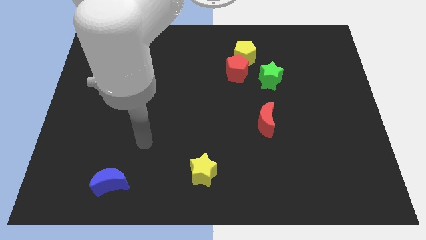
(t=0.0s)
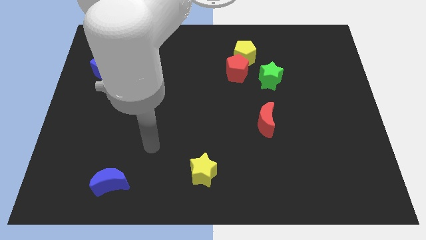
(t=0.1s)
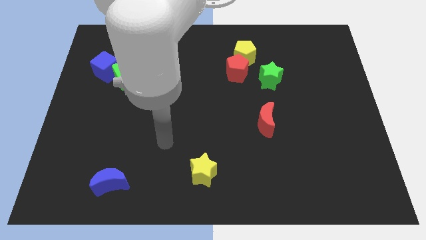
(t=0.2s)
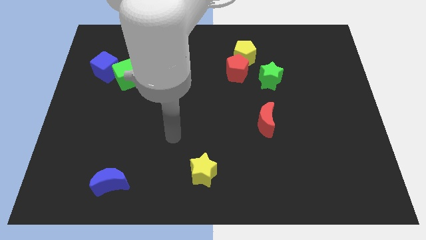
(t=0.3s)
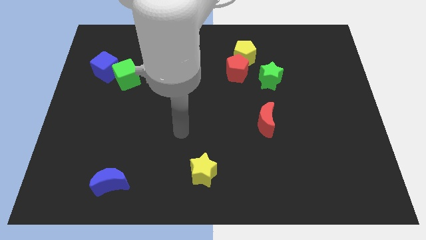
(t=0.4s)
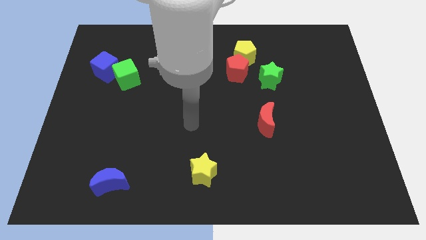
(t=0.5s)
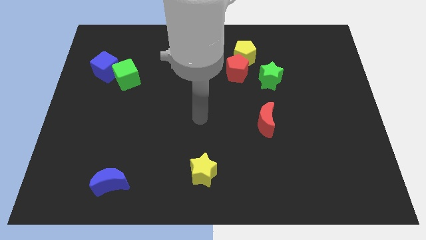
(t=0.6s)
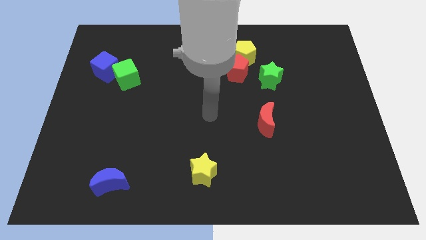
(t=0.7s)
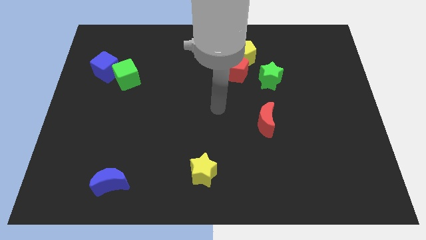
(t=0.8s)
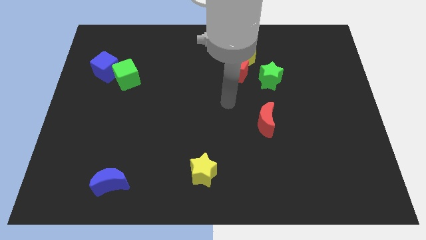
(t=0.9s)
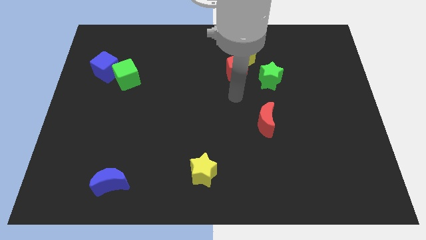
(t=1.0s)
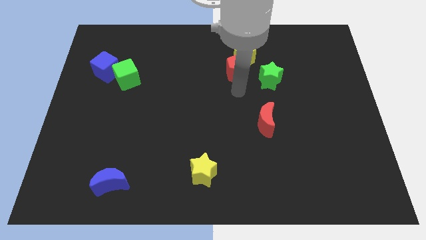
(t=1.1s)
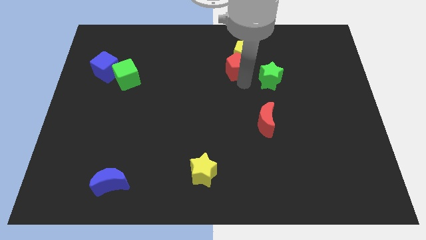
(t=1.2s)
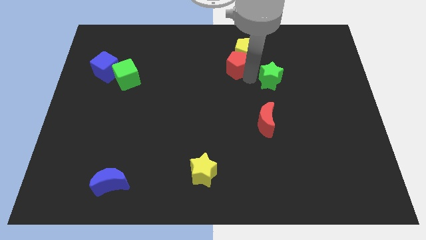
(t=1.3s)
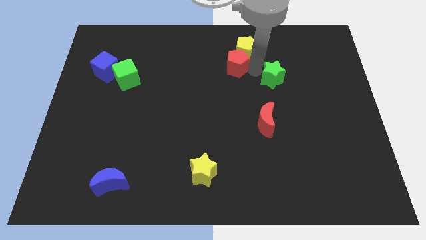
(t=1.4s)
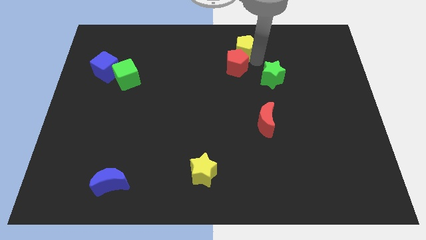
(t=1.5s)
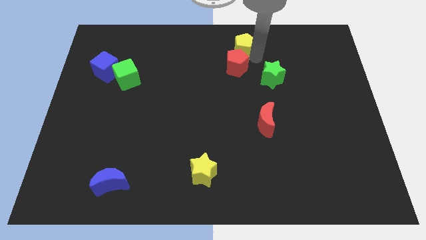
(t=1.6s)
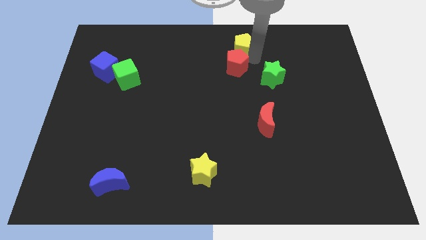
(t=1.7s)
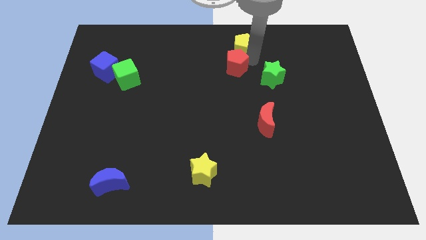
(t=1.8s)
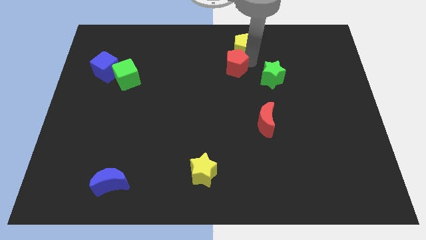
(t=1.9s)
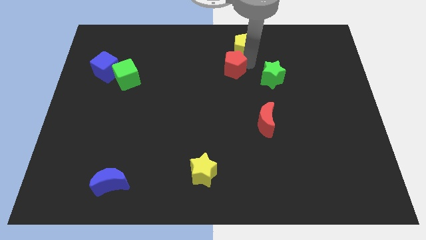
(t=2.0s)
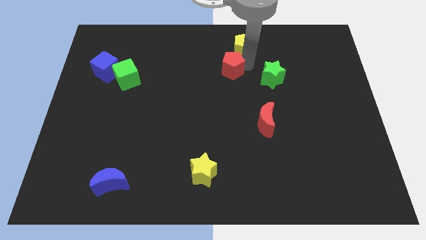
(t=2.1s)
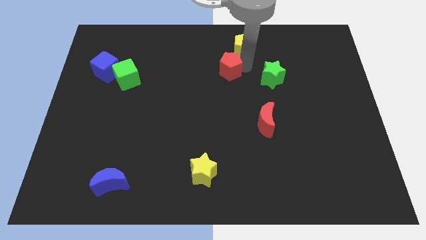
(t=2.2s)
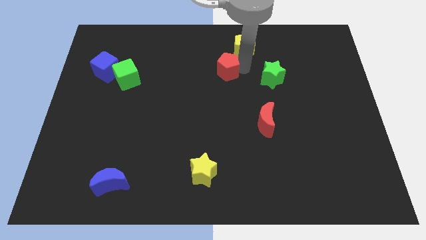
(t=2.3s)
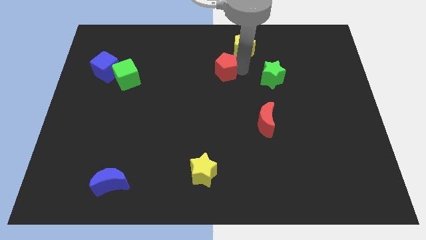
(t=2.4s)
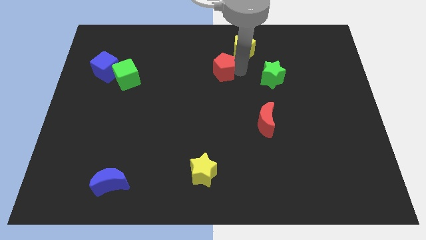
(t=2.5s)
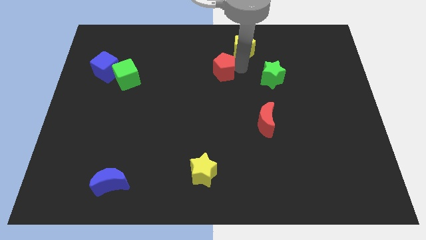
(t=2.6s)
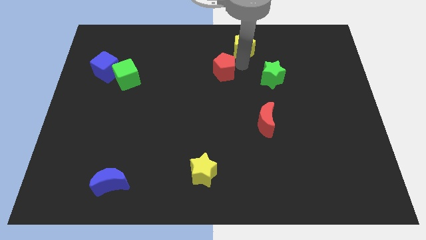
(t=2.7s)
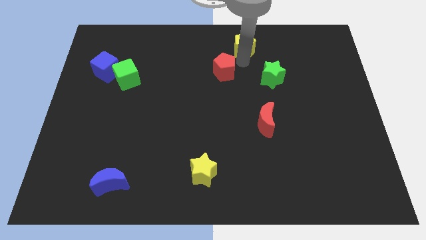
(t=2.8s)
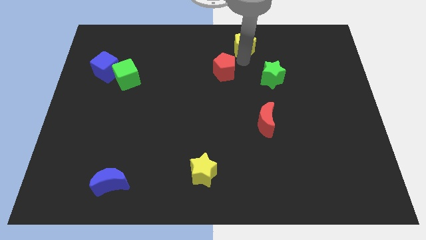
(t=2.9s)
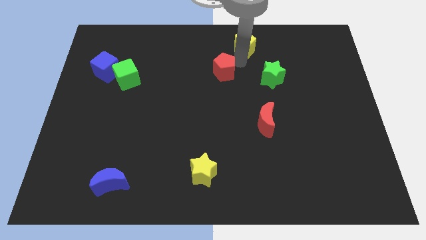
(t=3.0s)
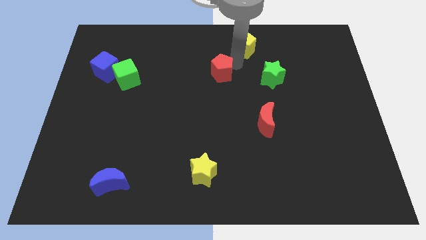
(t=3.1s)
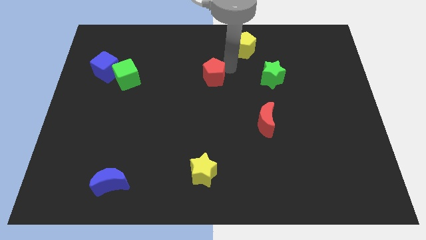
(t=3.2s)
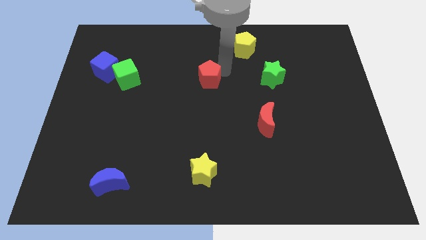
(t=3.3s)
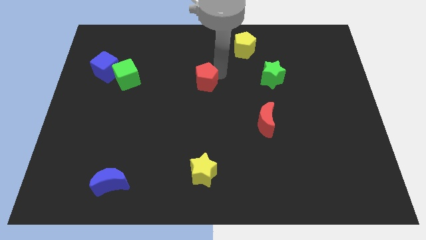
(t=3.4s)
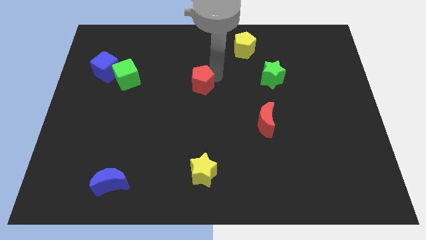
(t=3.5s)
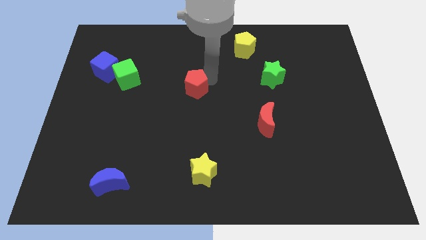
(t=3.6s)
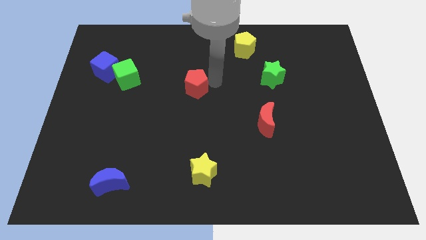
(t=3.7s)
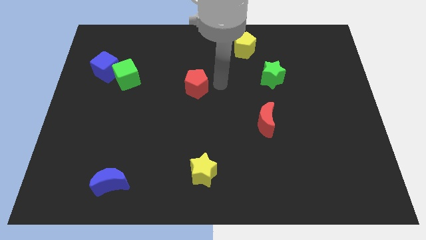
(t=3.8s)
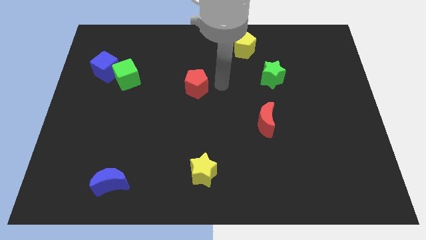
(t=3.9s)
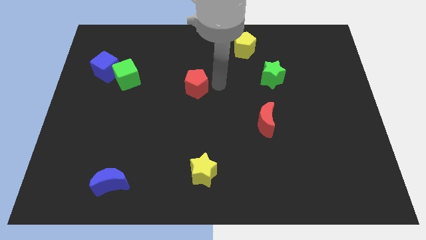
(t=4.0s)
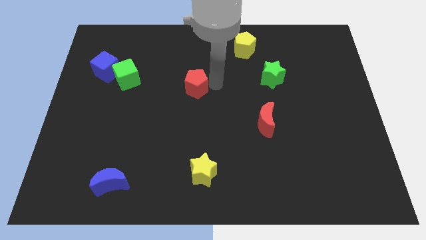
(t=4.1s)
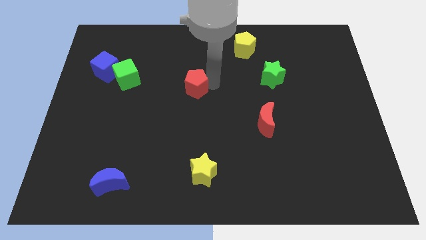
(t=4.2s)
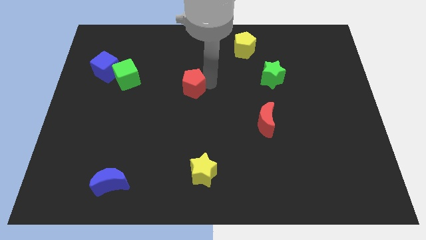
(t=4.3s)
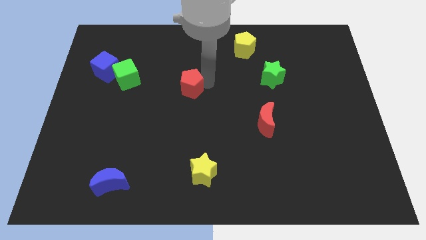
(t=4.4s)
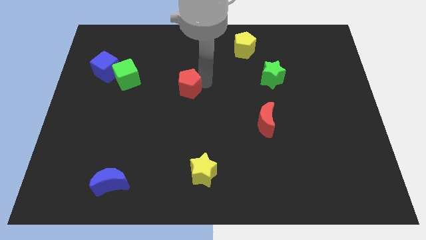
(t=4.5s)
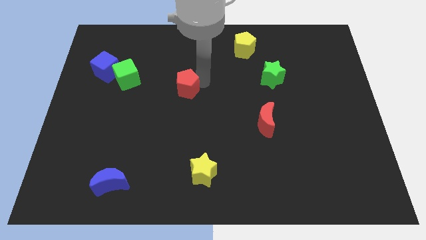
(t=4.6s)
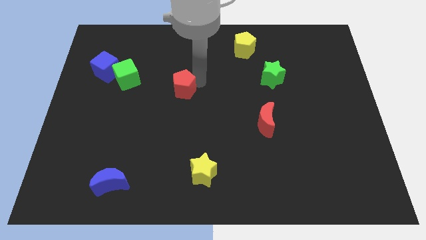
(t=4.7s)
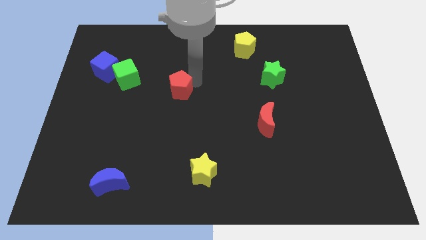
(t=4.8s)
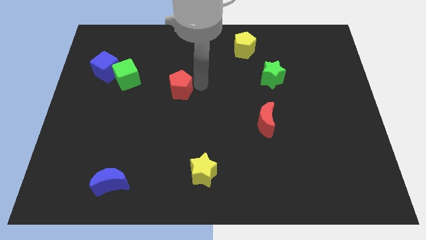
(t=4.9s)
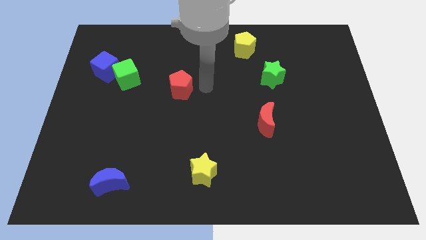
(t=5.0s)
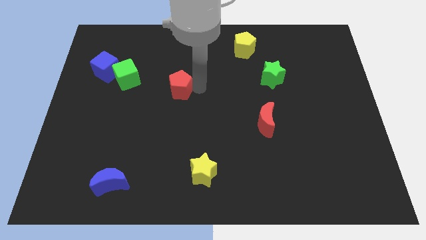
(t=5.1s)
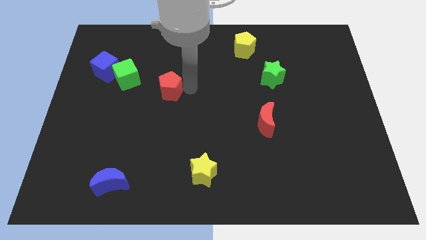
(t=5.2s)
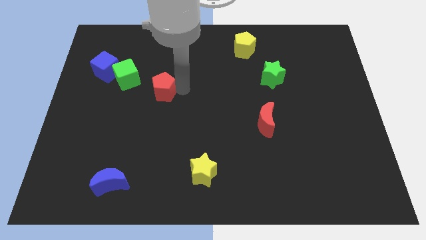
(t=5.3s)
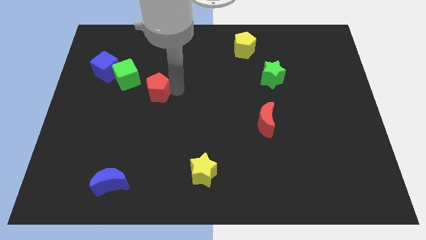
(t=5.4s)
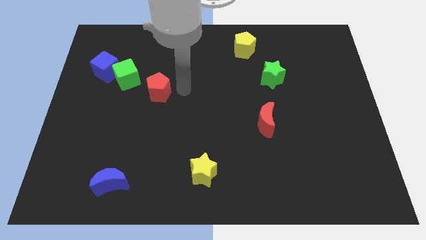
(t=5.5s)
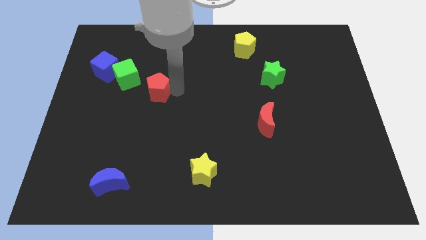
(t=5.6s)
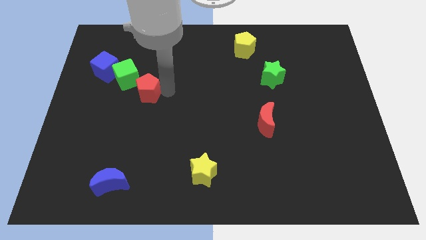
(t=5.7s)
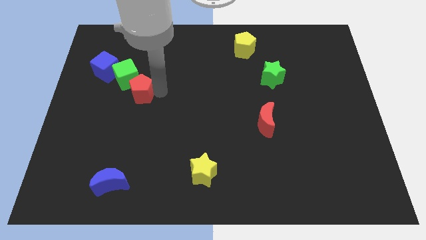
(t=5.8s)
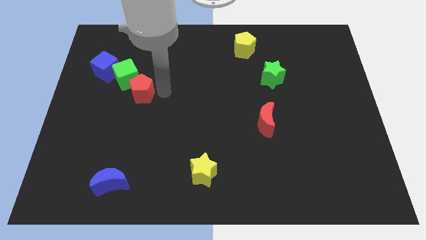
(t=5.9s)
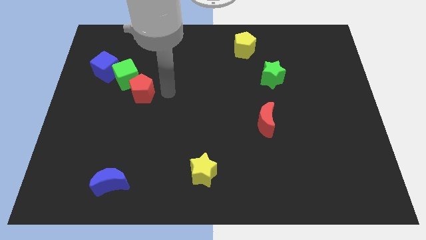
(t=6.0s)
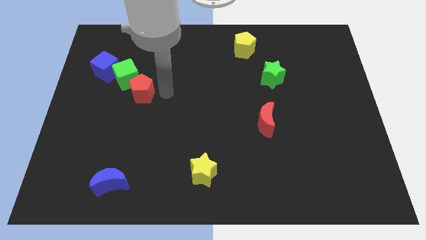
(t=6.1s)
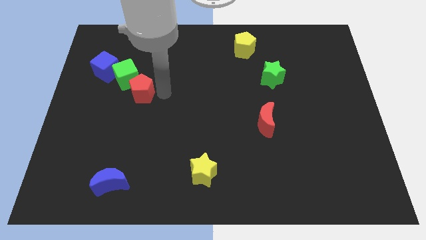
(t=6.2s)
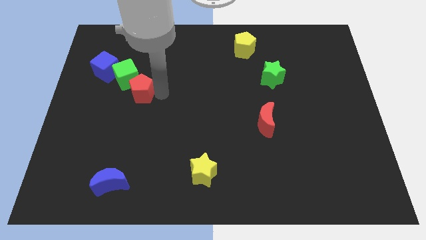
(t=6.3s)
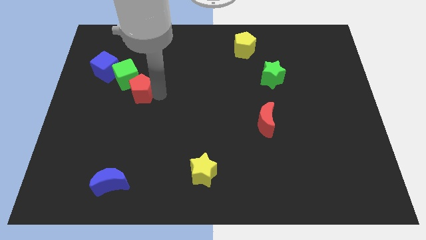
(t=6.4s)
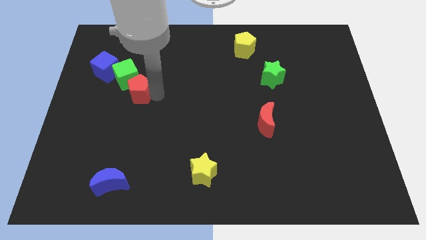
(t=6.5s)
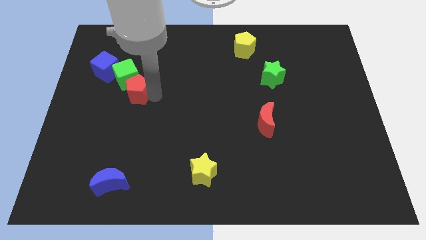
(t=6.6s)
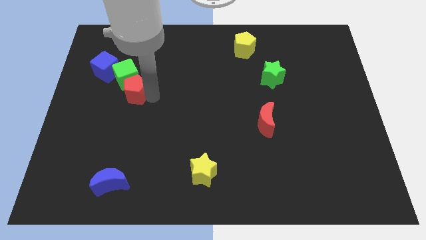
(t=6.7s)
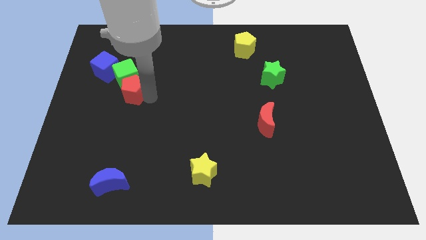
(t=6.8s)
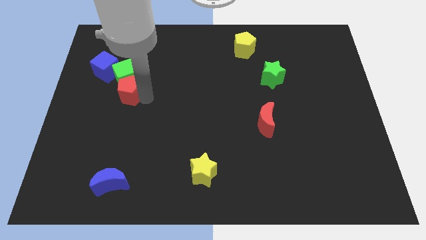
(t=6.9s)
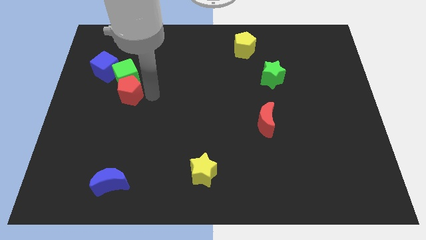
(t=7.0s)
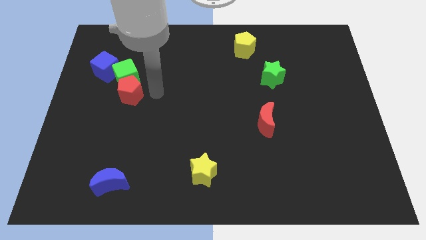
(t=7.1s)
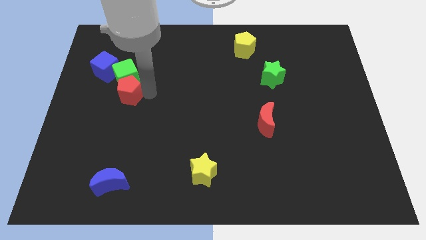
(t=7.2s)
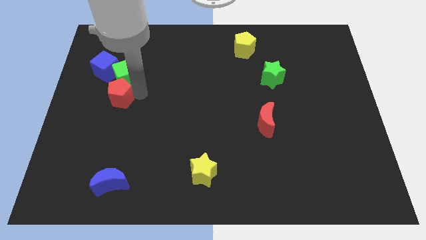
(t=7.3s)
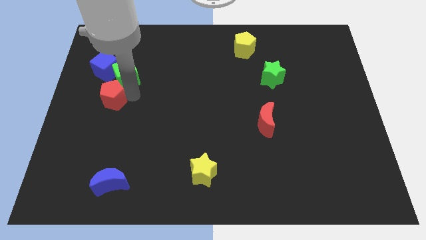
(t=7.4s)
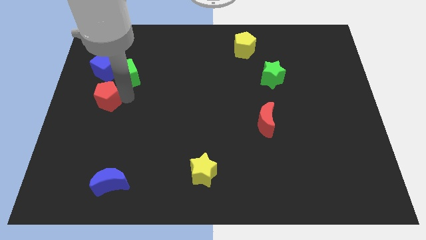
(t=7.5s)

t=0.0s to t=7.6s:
put the red pentagon to the left side of the board
